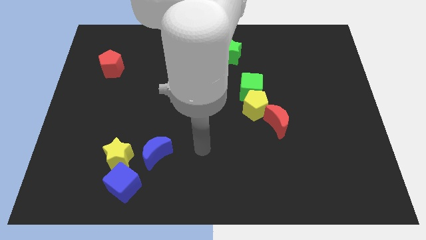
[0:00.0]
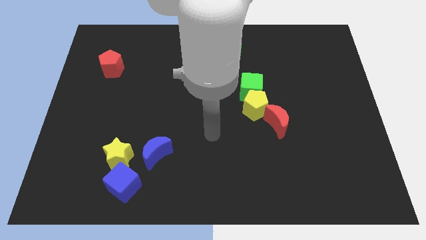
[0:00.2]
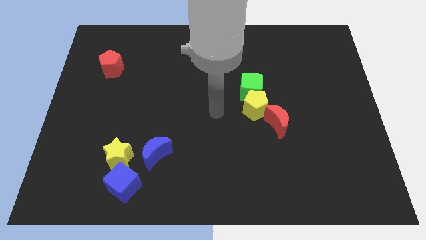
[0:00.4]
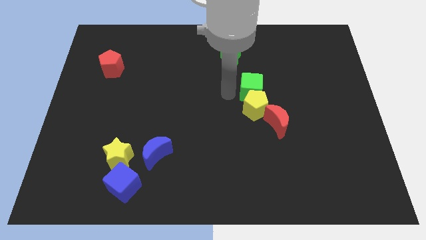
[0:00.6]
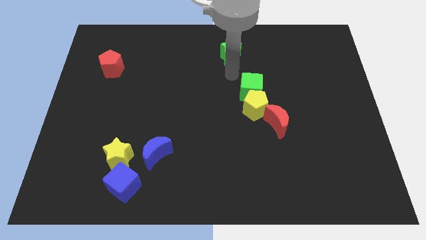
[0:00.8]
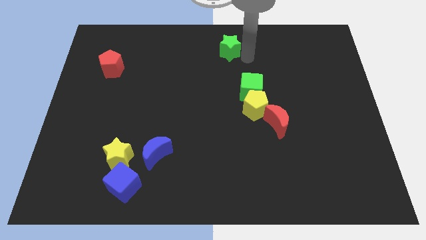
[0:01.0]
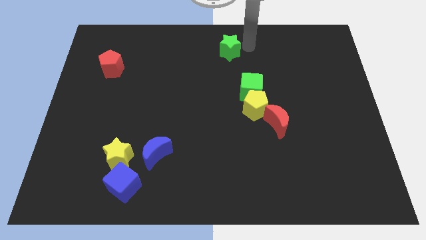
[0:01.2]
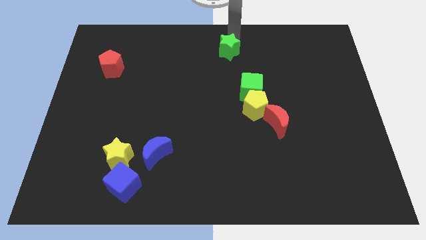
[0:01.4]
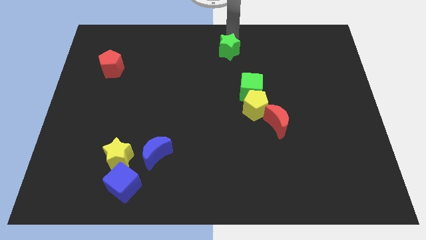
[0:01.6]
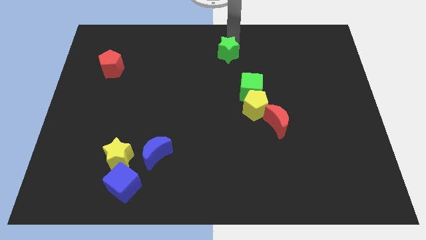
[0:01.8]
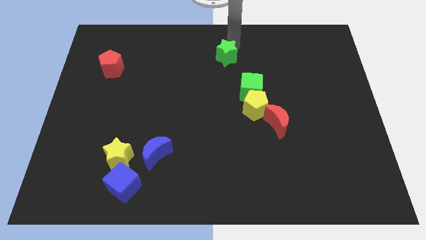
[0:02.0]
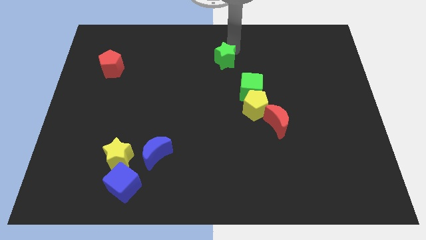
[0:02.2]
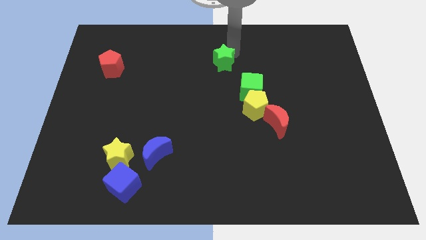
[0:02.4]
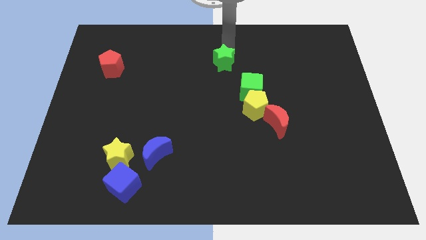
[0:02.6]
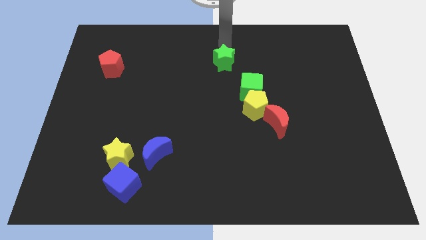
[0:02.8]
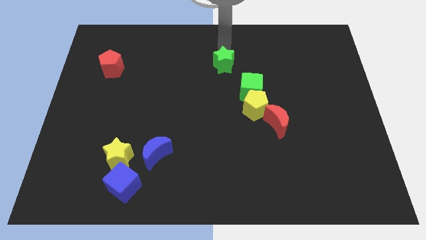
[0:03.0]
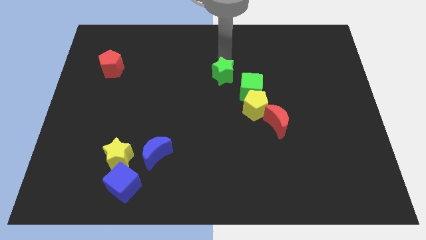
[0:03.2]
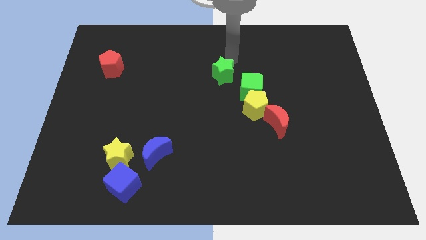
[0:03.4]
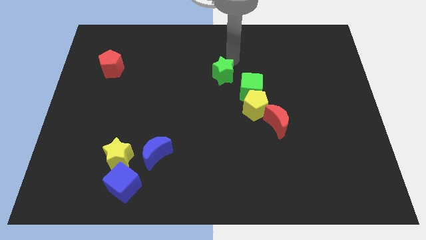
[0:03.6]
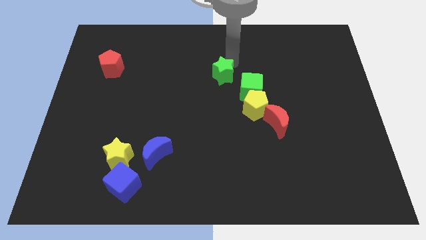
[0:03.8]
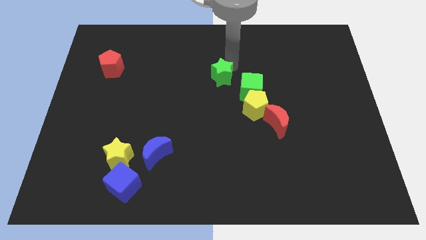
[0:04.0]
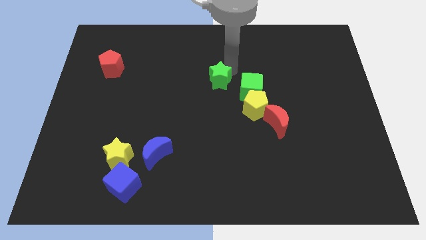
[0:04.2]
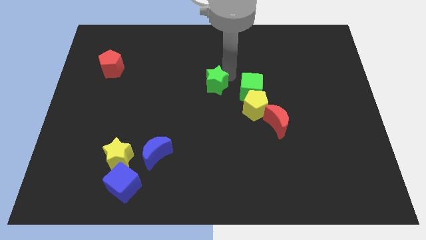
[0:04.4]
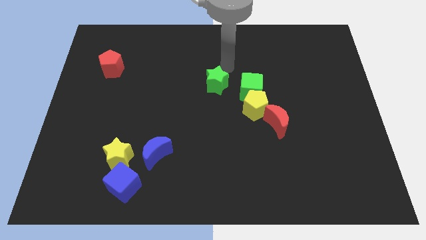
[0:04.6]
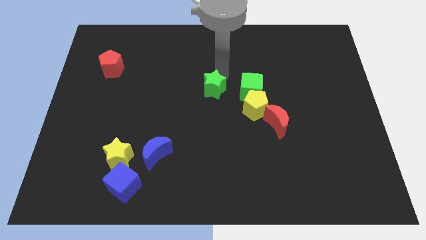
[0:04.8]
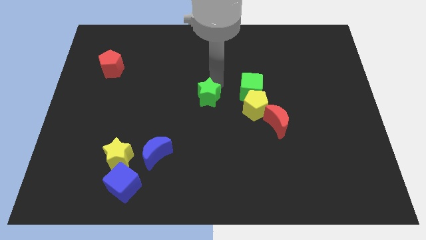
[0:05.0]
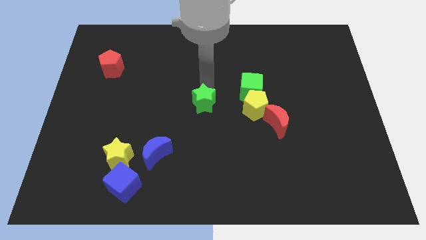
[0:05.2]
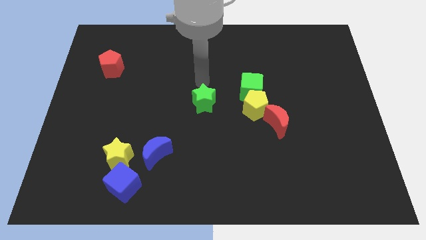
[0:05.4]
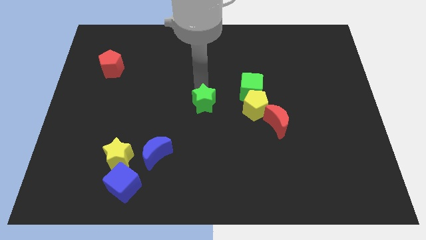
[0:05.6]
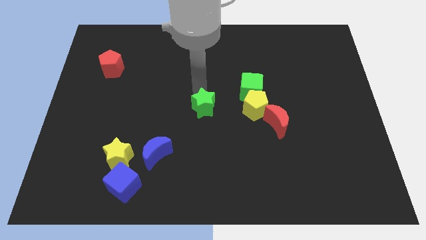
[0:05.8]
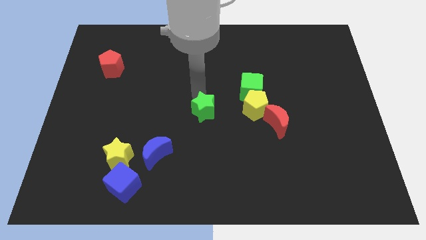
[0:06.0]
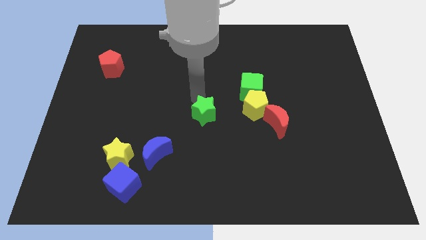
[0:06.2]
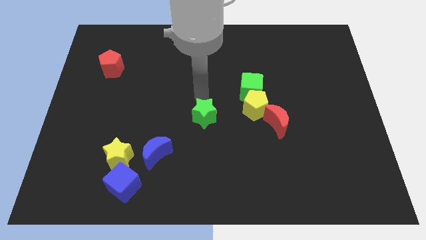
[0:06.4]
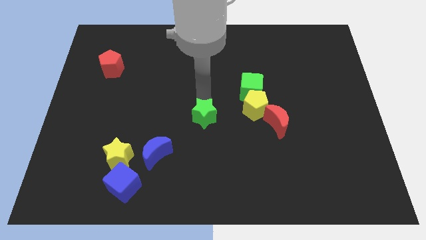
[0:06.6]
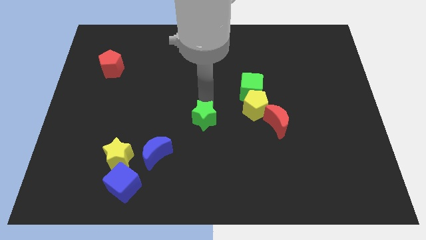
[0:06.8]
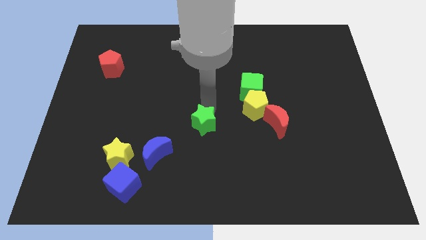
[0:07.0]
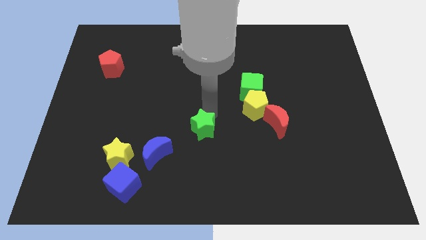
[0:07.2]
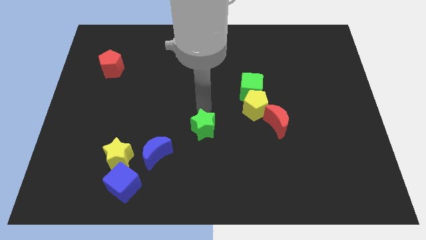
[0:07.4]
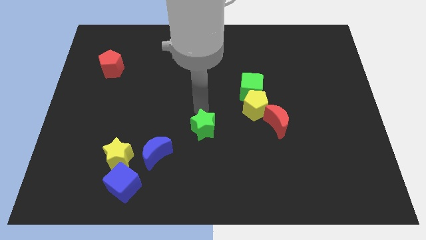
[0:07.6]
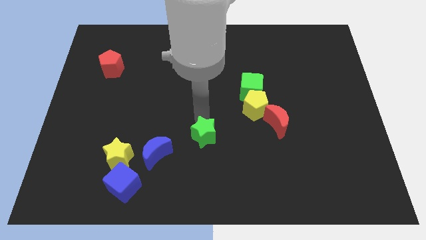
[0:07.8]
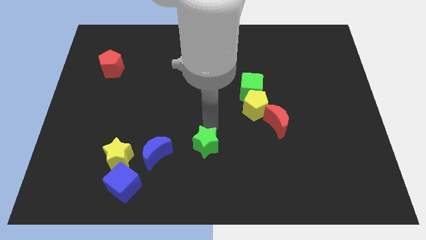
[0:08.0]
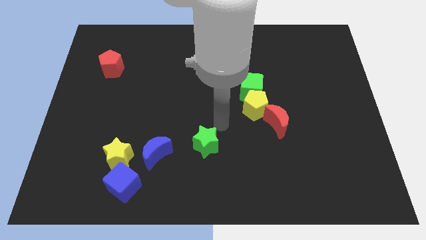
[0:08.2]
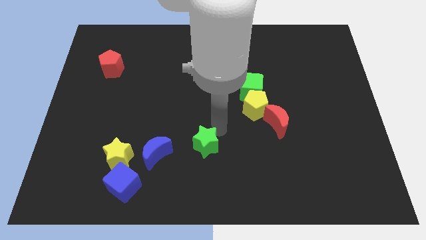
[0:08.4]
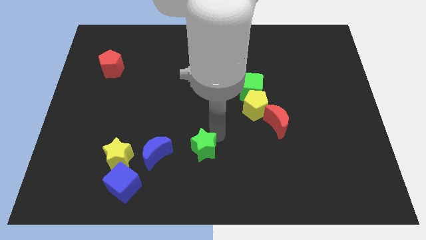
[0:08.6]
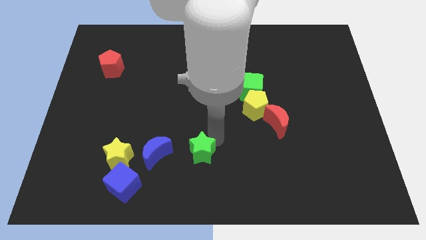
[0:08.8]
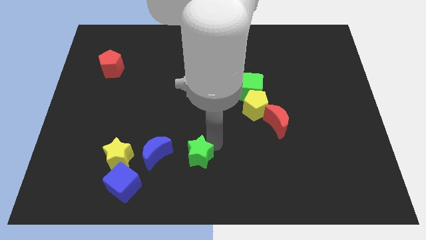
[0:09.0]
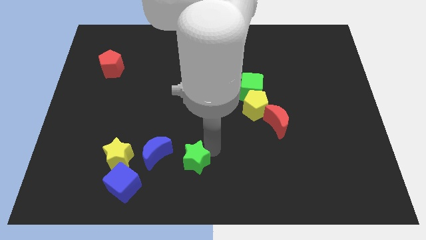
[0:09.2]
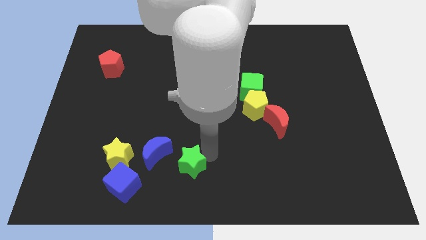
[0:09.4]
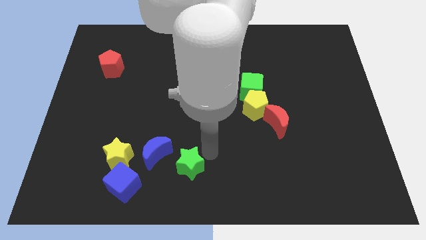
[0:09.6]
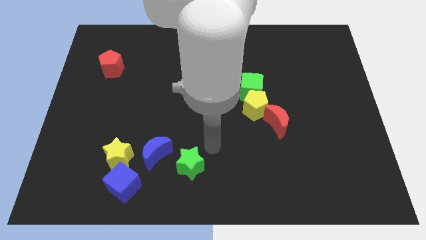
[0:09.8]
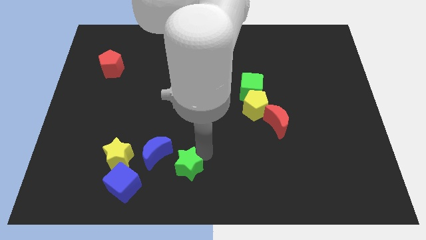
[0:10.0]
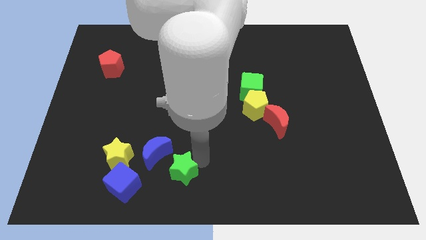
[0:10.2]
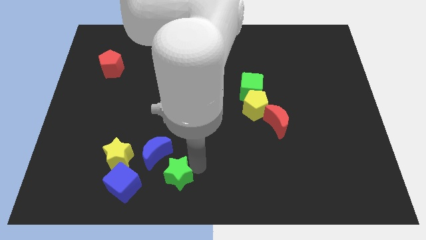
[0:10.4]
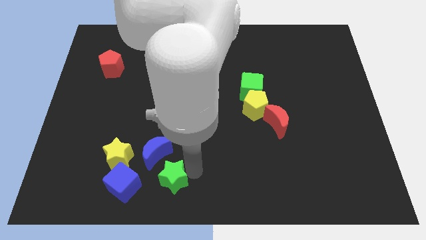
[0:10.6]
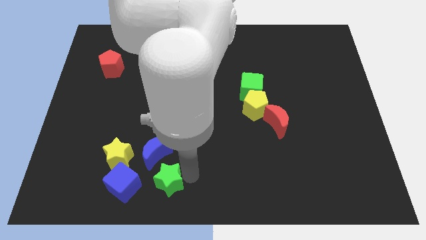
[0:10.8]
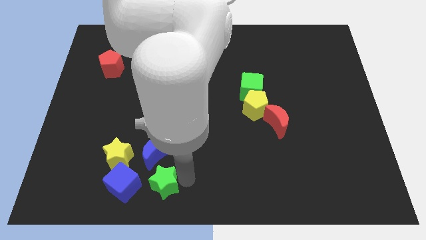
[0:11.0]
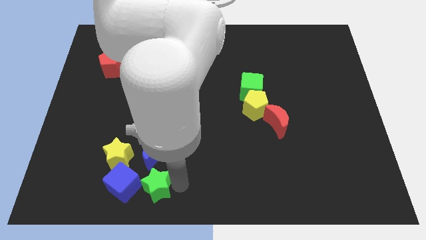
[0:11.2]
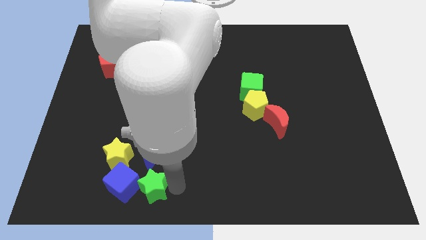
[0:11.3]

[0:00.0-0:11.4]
put the green star close to the blue cube

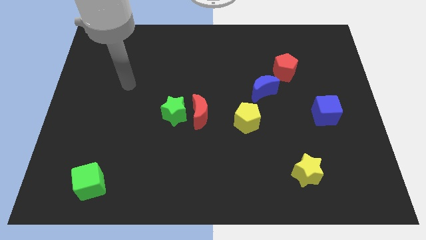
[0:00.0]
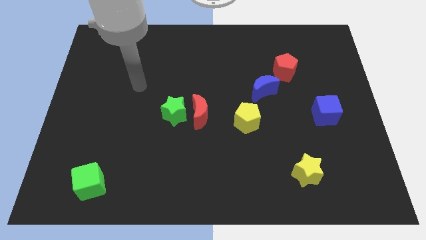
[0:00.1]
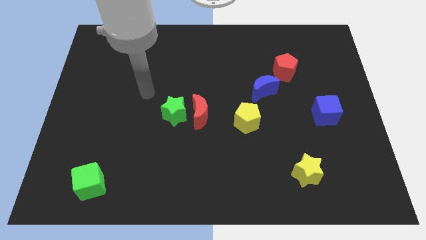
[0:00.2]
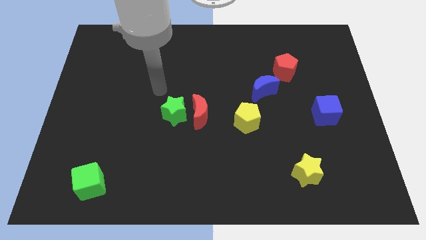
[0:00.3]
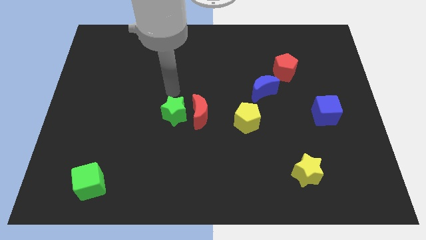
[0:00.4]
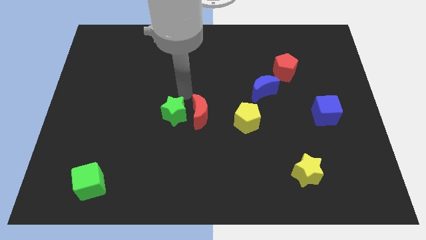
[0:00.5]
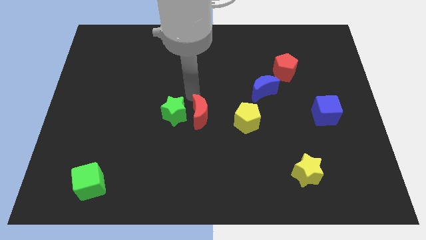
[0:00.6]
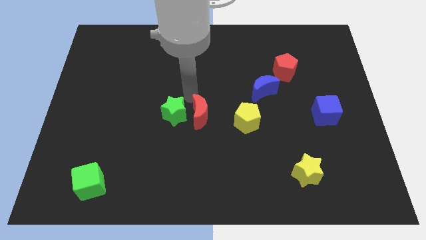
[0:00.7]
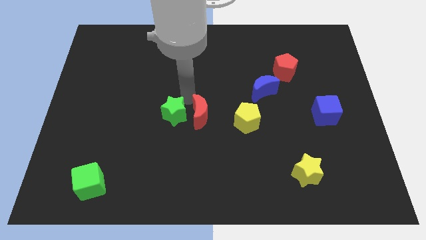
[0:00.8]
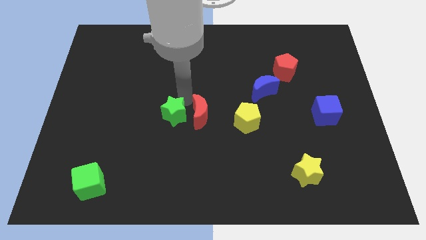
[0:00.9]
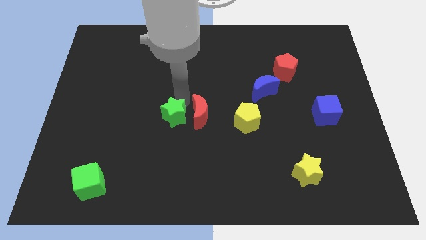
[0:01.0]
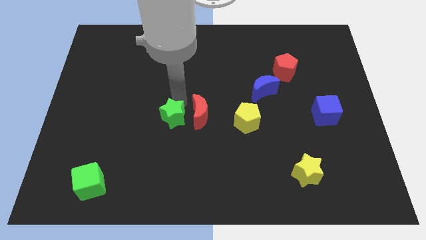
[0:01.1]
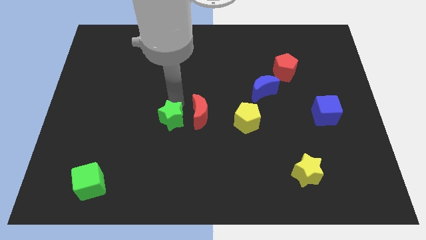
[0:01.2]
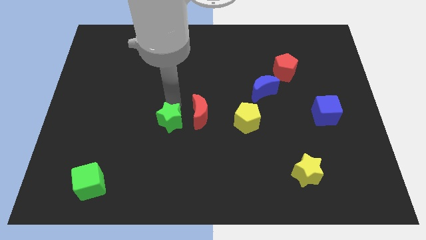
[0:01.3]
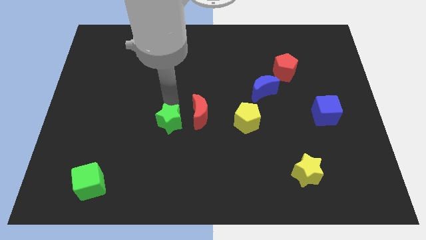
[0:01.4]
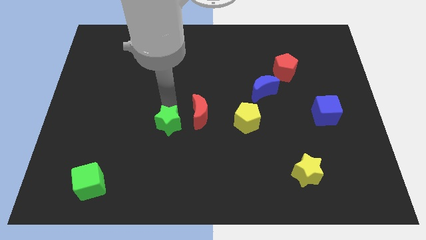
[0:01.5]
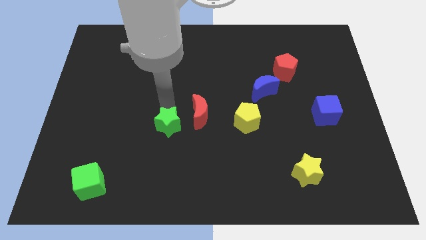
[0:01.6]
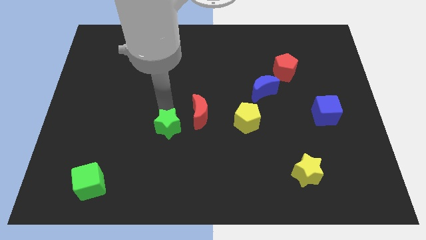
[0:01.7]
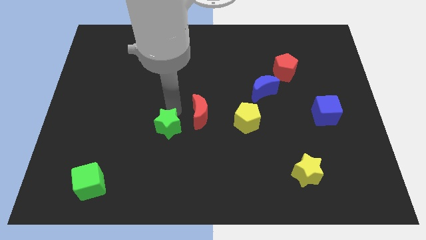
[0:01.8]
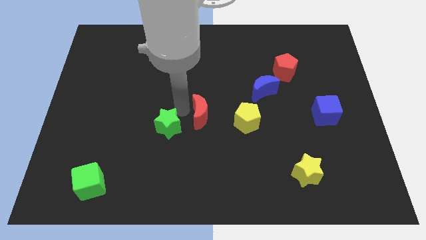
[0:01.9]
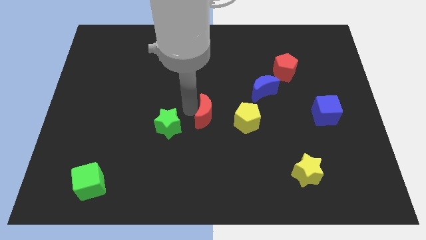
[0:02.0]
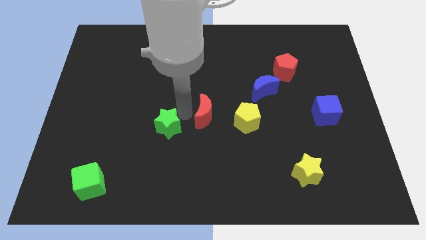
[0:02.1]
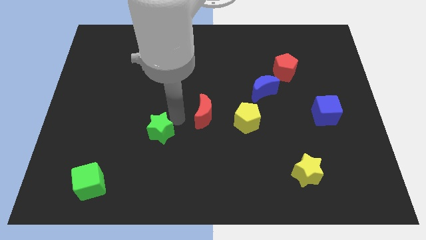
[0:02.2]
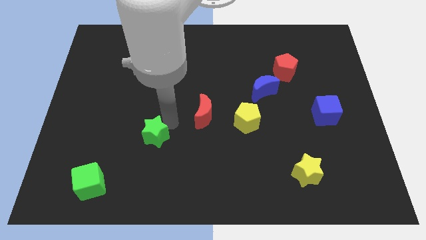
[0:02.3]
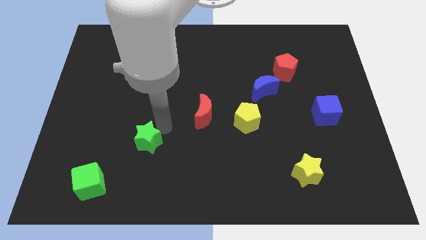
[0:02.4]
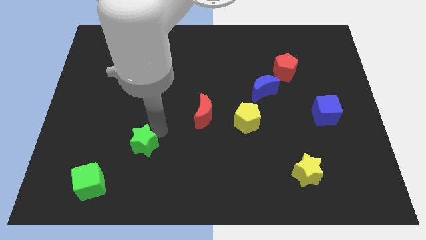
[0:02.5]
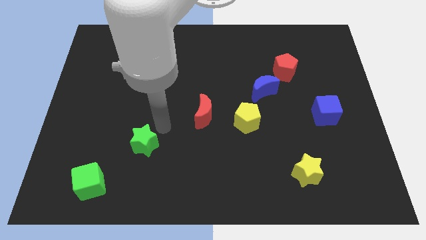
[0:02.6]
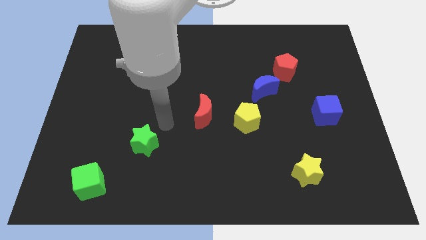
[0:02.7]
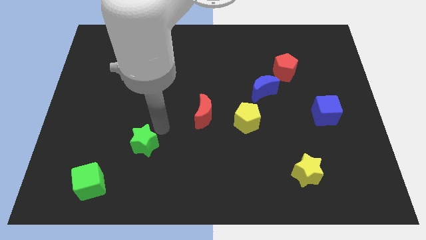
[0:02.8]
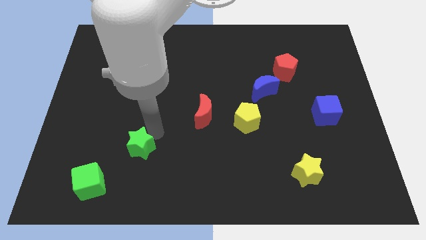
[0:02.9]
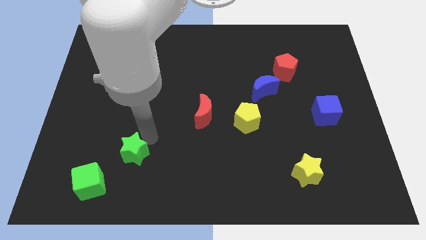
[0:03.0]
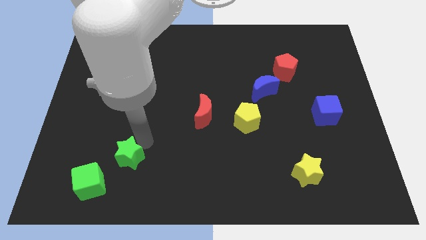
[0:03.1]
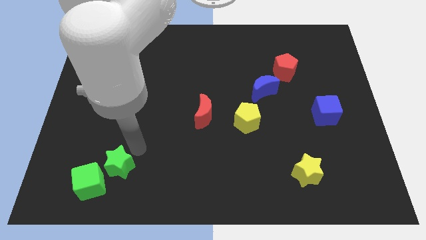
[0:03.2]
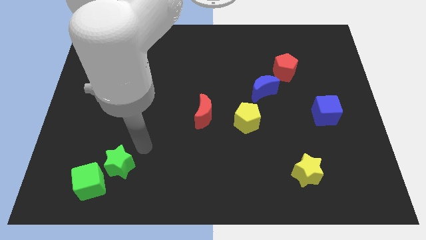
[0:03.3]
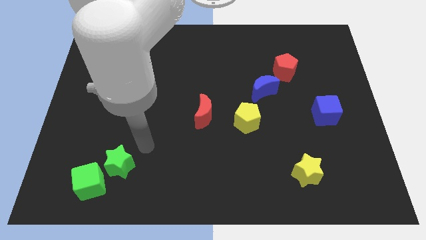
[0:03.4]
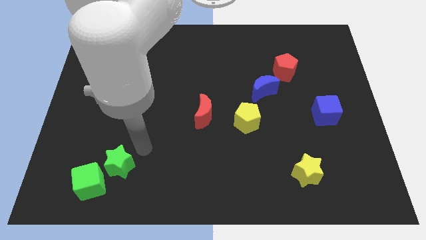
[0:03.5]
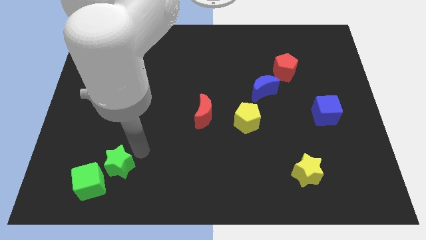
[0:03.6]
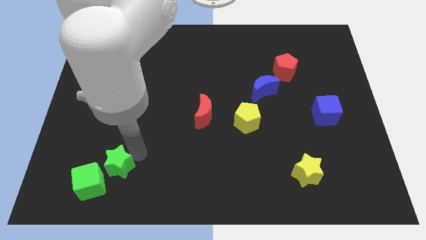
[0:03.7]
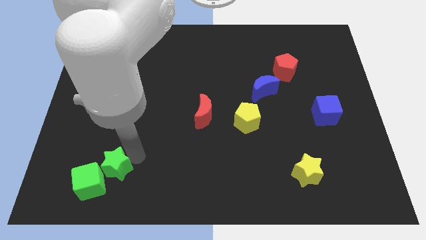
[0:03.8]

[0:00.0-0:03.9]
slide the green star towards the green cube
